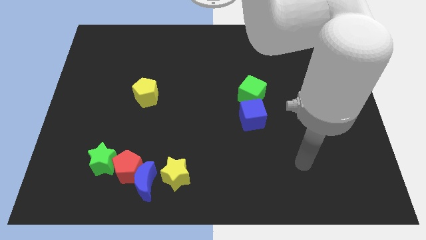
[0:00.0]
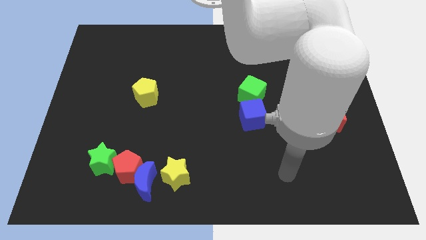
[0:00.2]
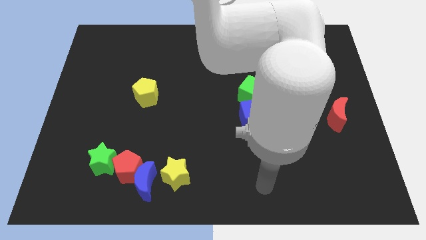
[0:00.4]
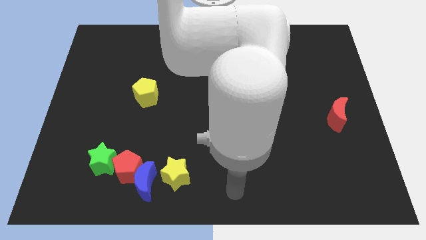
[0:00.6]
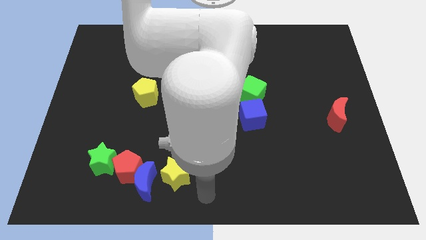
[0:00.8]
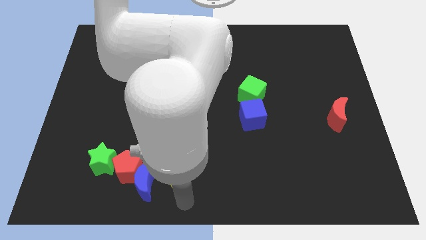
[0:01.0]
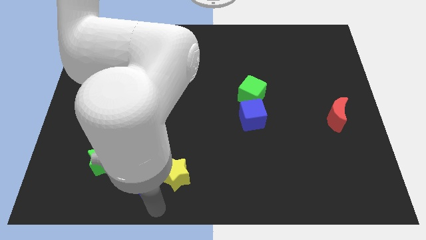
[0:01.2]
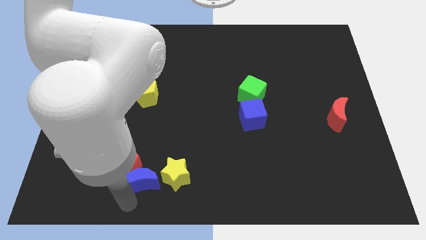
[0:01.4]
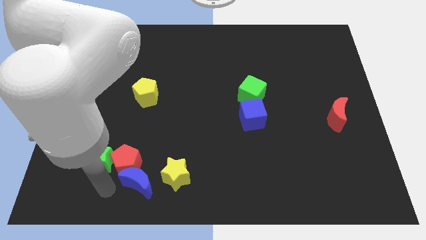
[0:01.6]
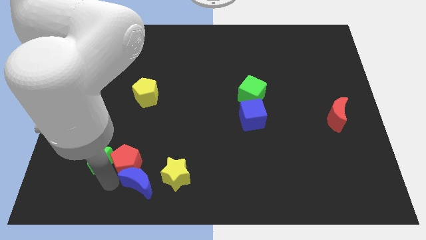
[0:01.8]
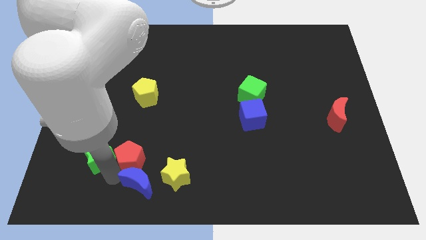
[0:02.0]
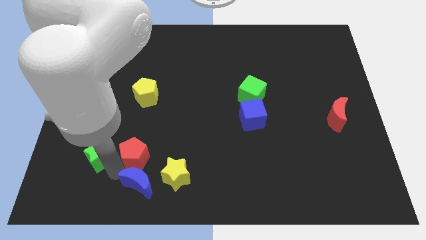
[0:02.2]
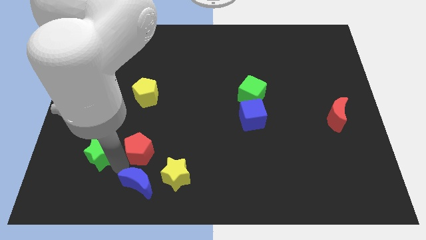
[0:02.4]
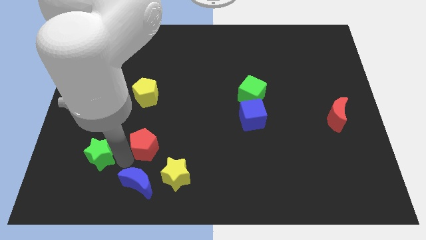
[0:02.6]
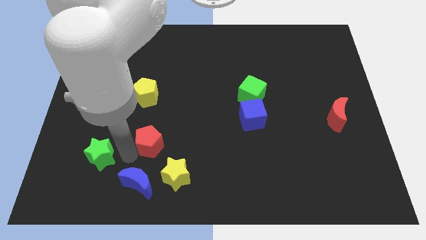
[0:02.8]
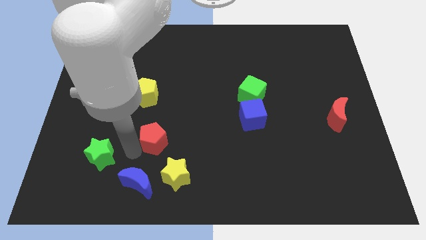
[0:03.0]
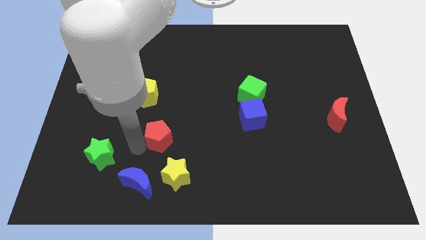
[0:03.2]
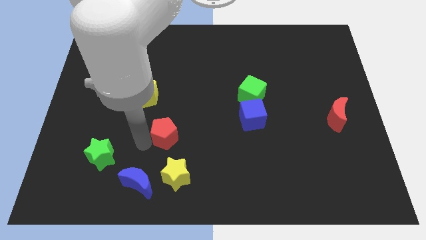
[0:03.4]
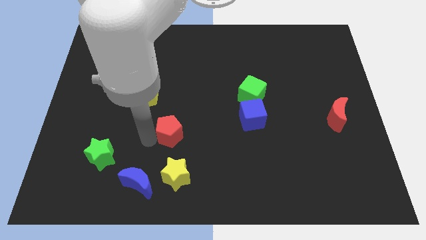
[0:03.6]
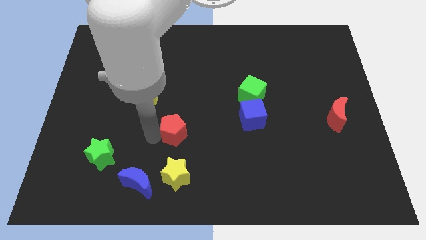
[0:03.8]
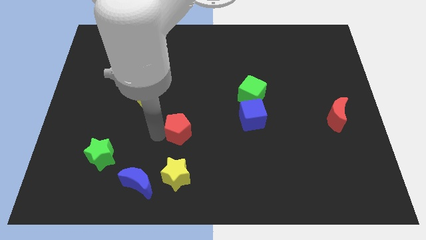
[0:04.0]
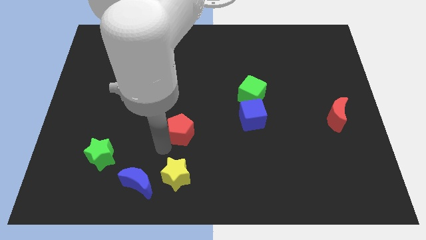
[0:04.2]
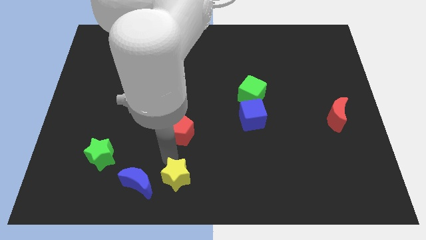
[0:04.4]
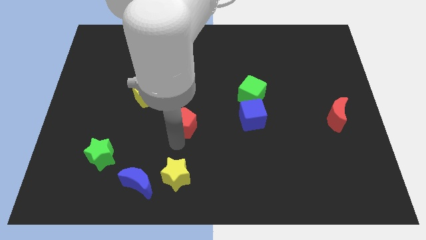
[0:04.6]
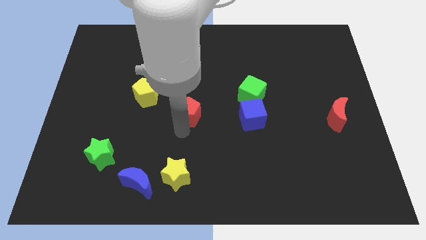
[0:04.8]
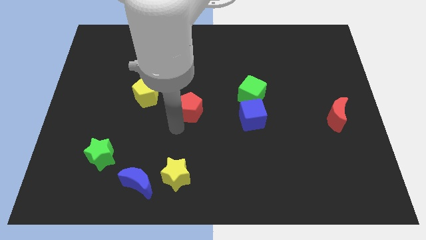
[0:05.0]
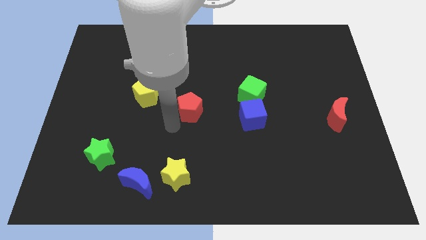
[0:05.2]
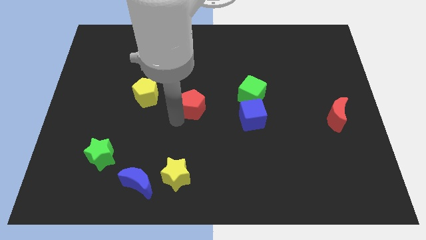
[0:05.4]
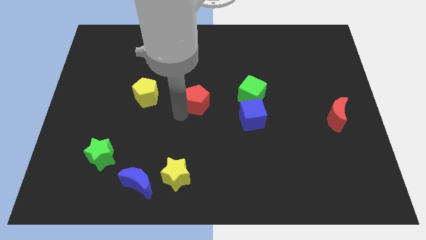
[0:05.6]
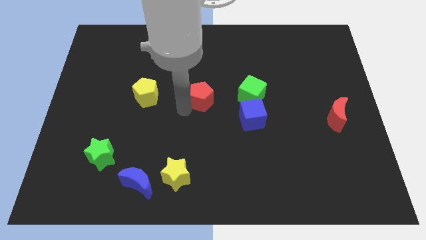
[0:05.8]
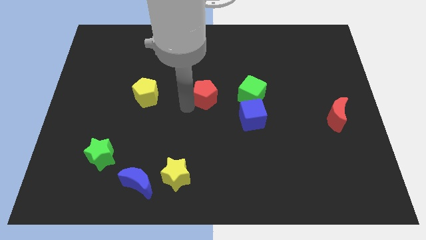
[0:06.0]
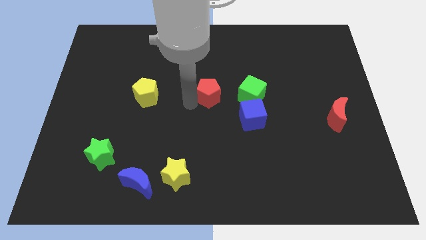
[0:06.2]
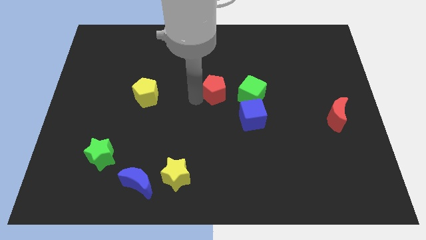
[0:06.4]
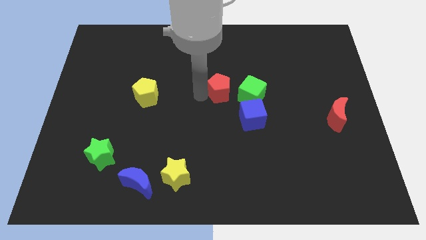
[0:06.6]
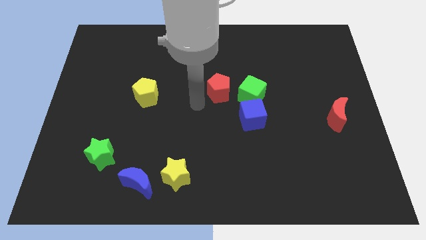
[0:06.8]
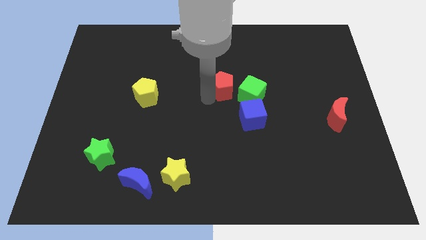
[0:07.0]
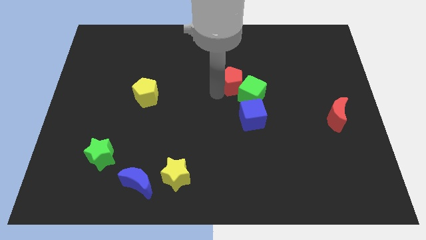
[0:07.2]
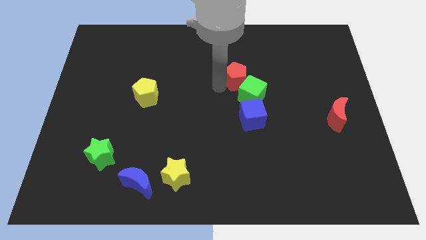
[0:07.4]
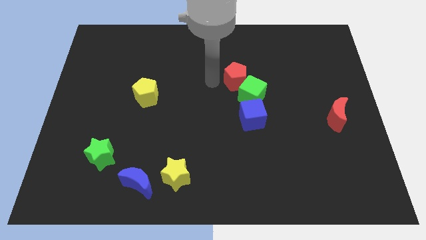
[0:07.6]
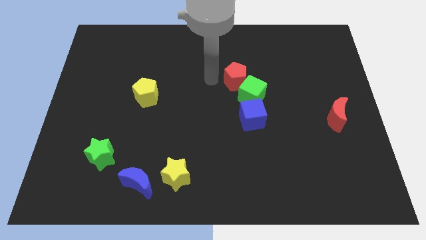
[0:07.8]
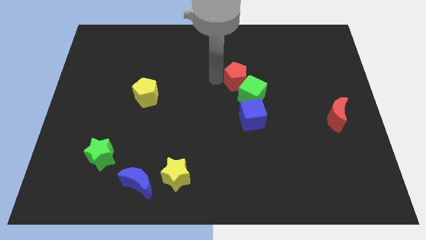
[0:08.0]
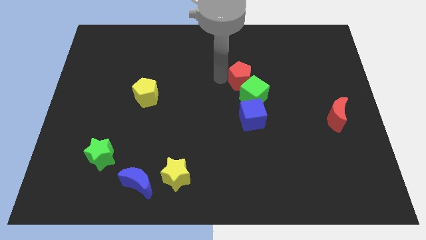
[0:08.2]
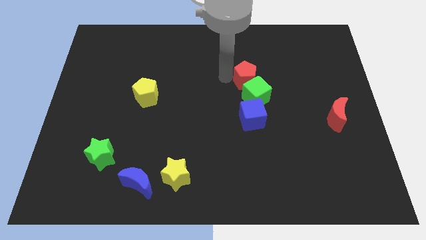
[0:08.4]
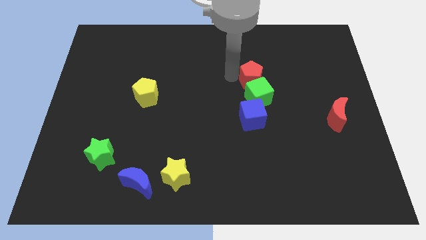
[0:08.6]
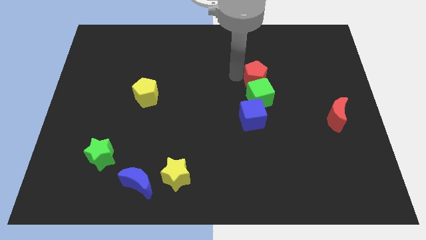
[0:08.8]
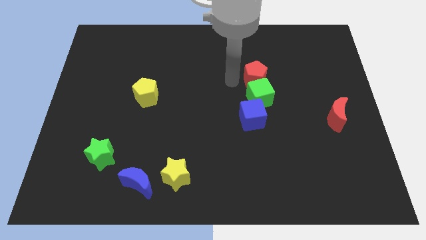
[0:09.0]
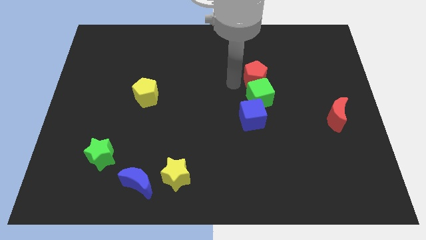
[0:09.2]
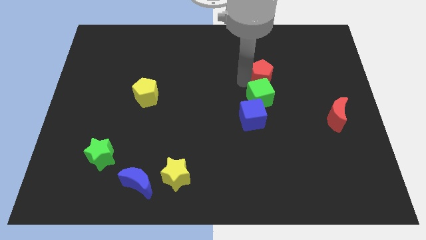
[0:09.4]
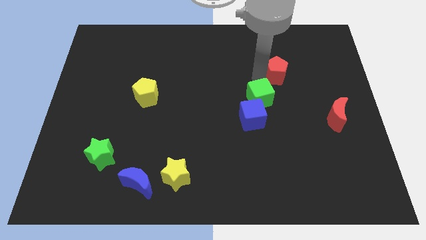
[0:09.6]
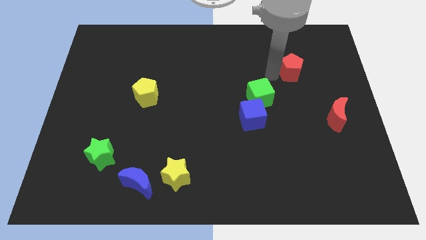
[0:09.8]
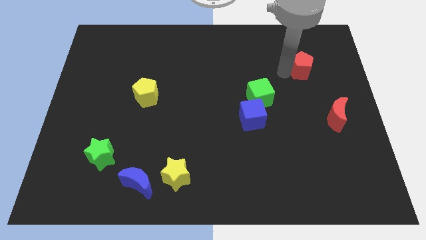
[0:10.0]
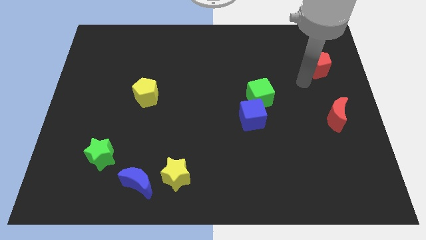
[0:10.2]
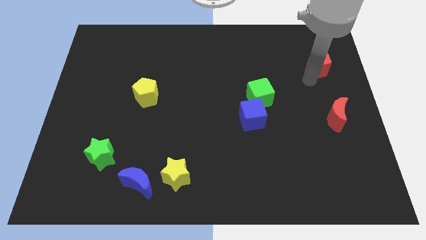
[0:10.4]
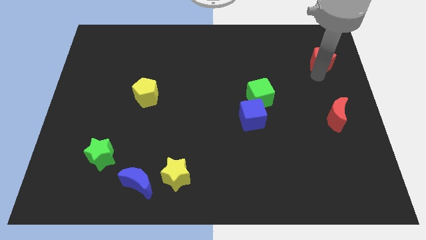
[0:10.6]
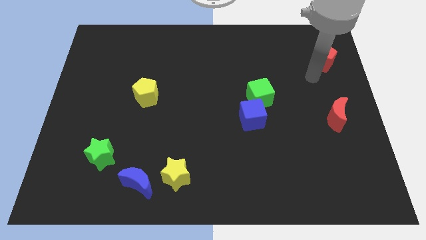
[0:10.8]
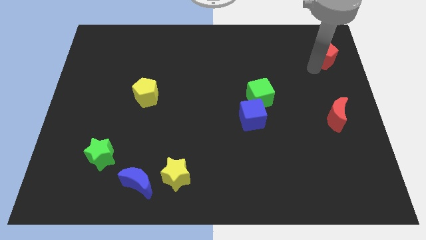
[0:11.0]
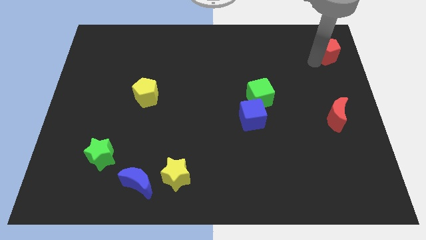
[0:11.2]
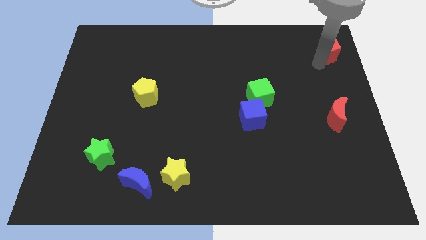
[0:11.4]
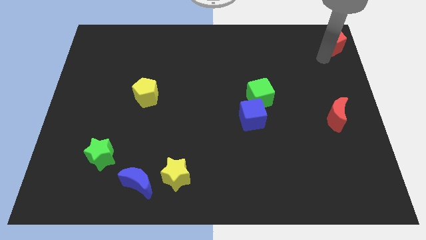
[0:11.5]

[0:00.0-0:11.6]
put the red pentagon to the top right of the board

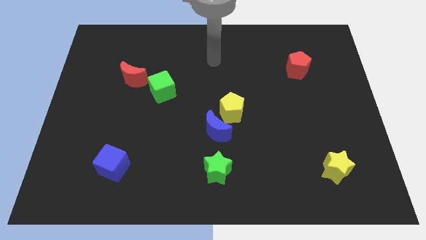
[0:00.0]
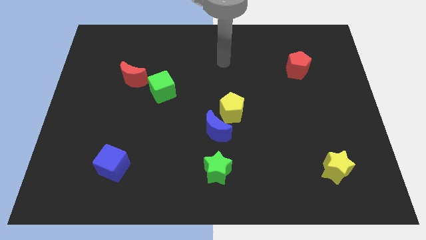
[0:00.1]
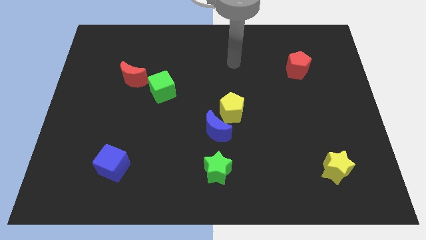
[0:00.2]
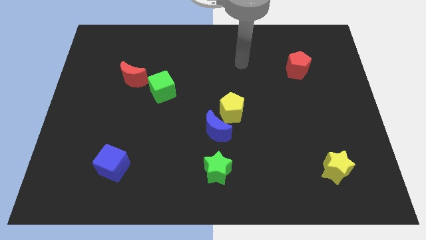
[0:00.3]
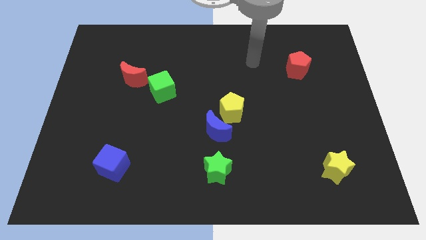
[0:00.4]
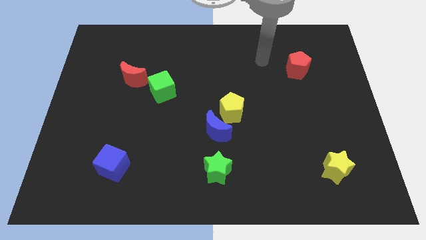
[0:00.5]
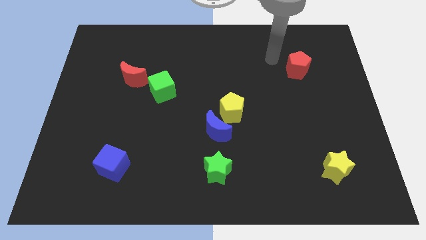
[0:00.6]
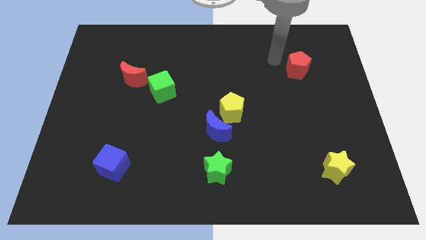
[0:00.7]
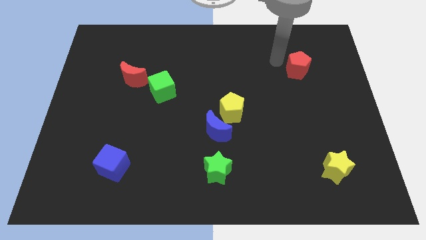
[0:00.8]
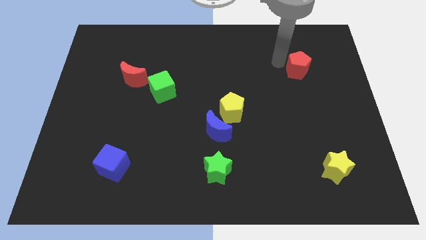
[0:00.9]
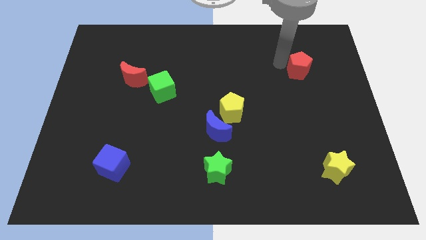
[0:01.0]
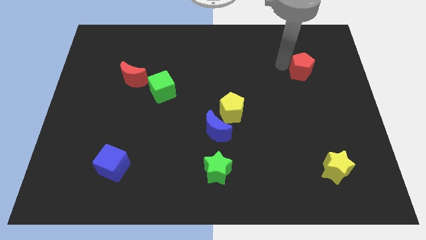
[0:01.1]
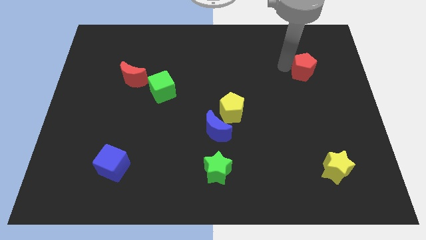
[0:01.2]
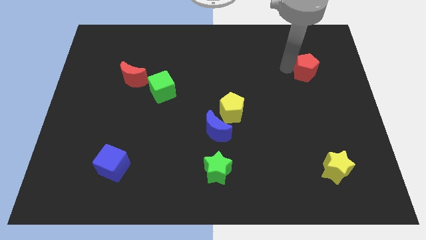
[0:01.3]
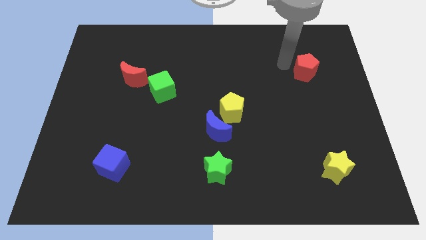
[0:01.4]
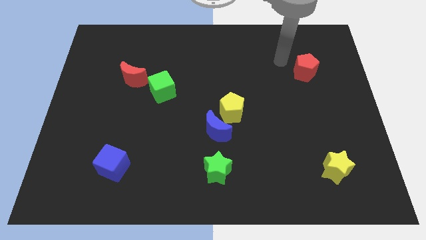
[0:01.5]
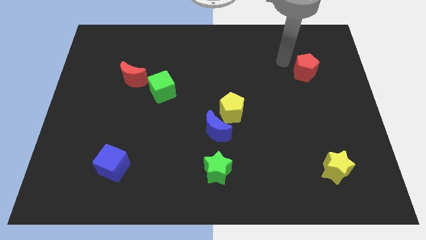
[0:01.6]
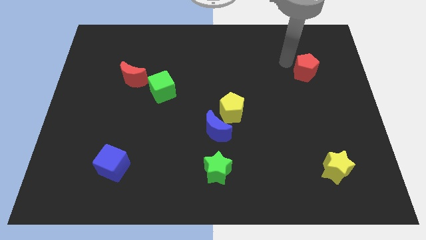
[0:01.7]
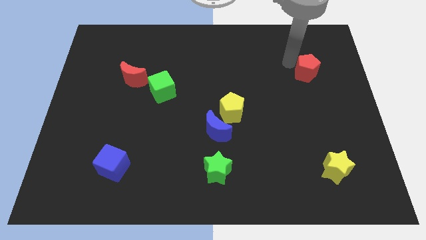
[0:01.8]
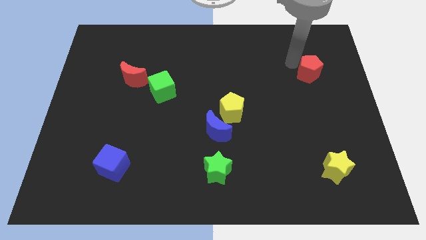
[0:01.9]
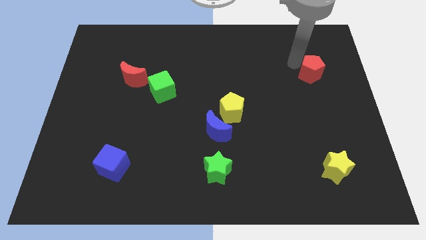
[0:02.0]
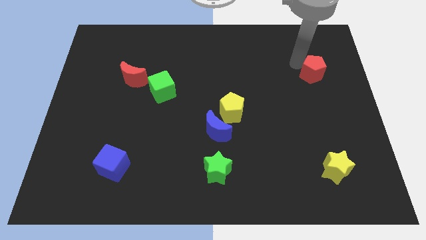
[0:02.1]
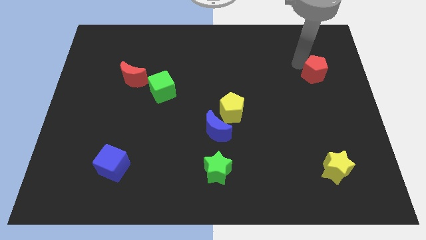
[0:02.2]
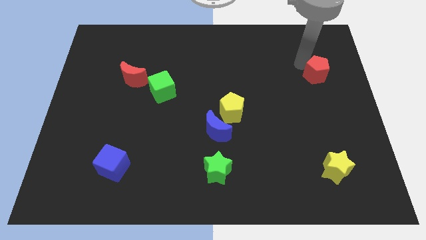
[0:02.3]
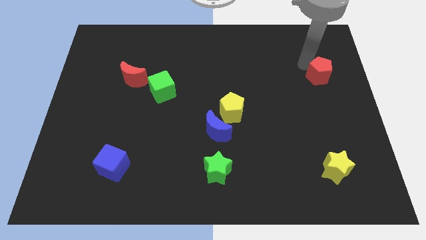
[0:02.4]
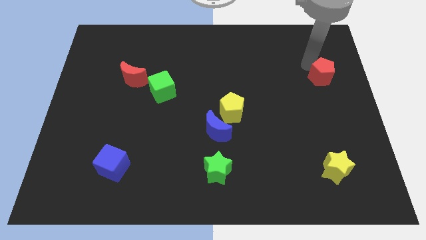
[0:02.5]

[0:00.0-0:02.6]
put the red pentagon to the right side of the board
